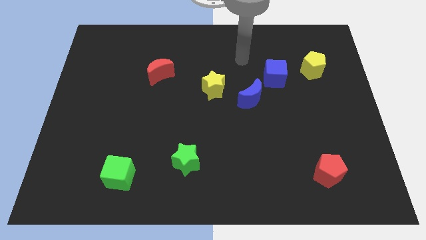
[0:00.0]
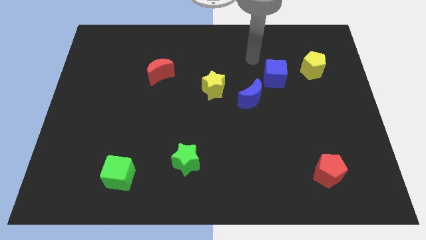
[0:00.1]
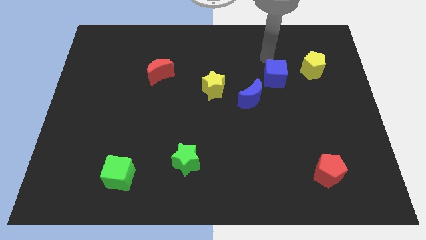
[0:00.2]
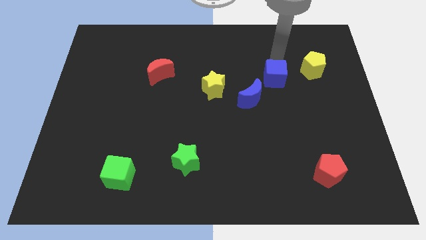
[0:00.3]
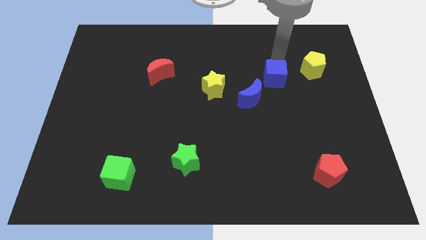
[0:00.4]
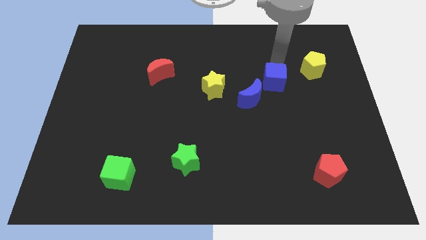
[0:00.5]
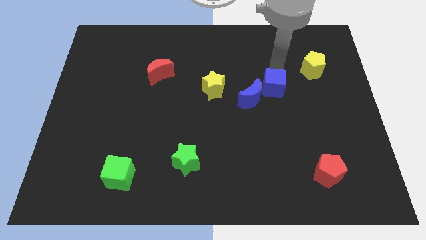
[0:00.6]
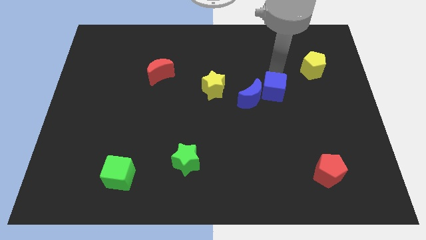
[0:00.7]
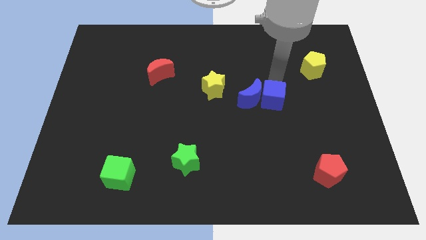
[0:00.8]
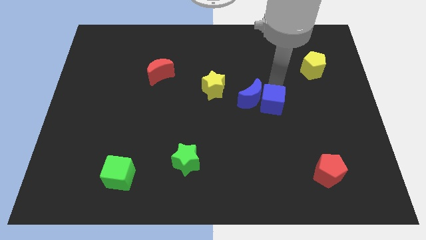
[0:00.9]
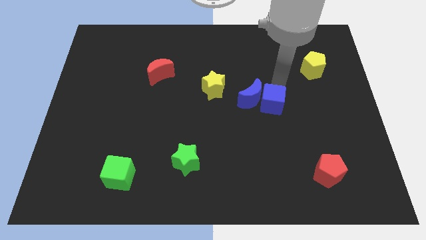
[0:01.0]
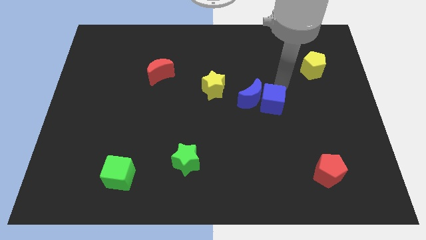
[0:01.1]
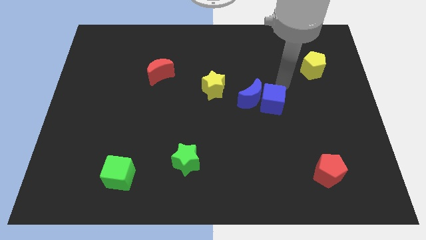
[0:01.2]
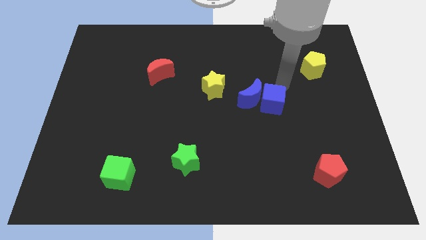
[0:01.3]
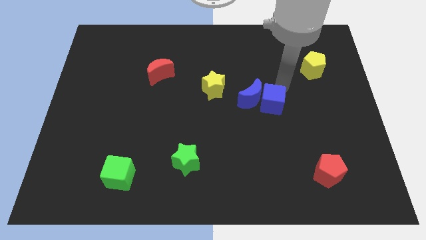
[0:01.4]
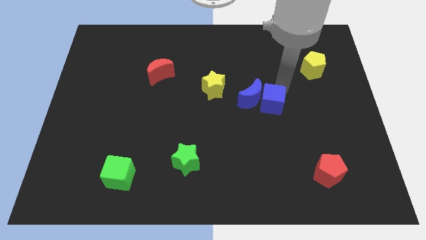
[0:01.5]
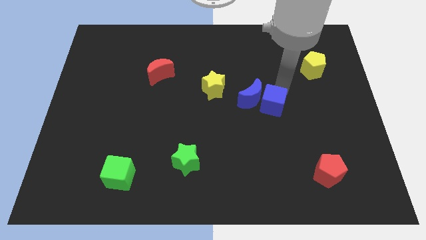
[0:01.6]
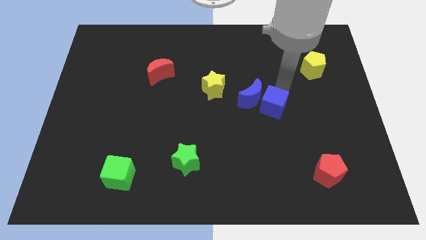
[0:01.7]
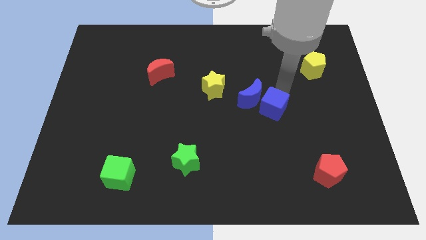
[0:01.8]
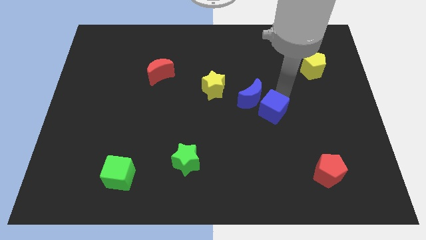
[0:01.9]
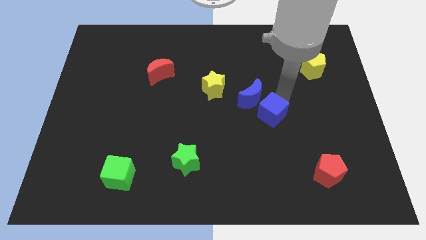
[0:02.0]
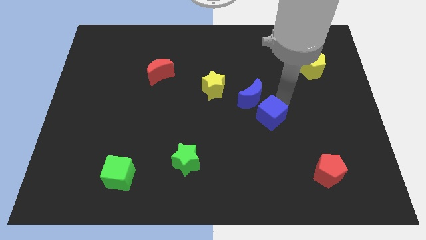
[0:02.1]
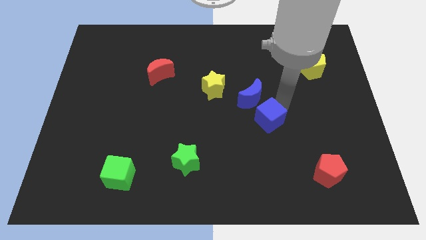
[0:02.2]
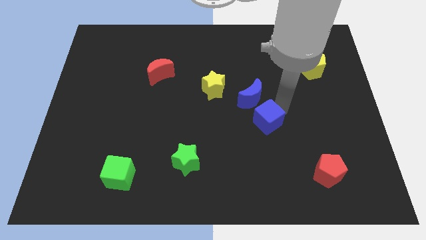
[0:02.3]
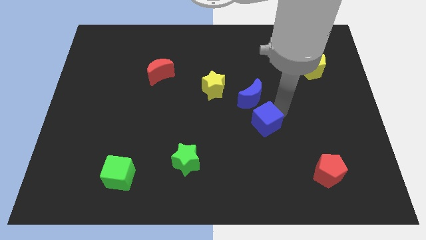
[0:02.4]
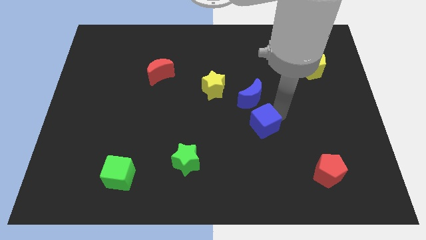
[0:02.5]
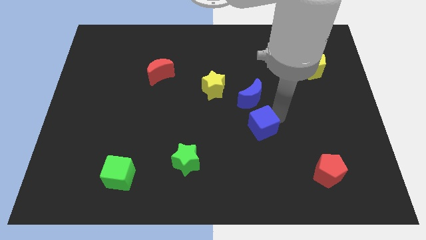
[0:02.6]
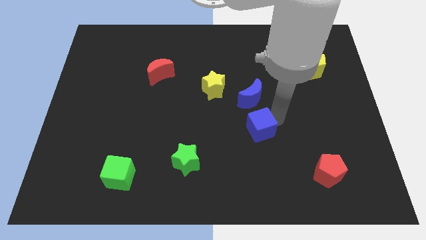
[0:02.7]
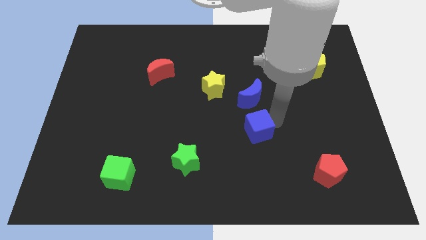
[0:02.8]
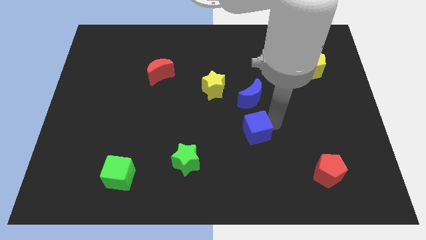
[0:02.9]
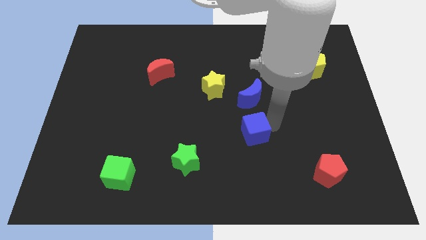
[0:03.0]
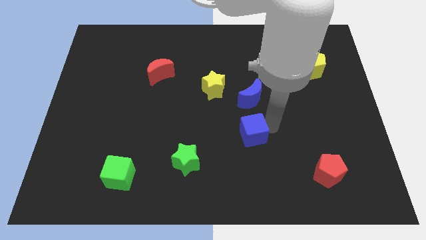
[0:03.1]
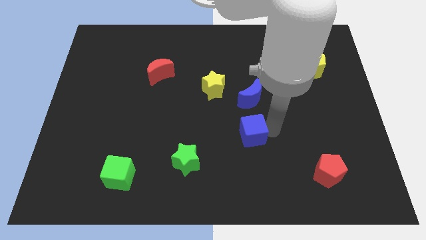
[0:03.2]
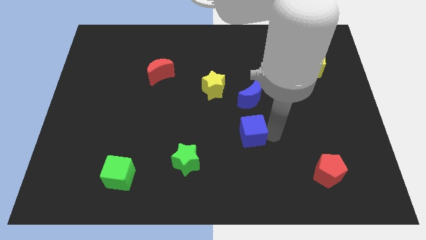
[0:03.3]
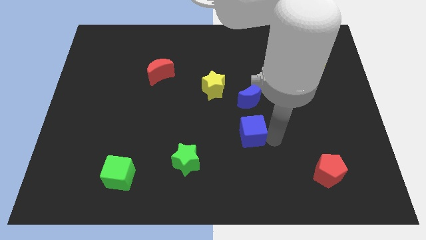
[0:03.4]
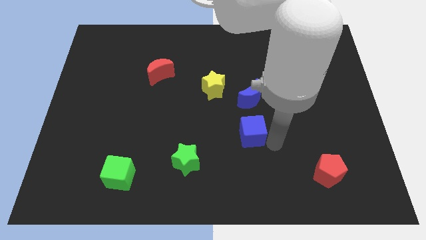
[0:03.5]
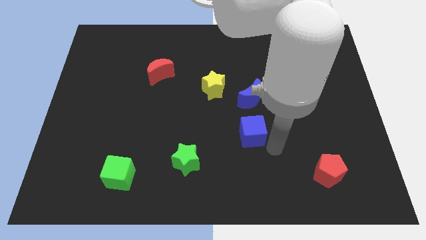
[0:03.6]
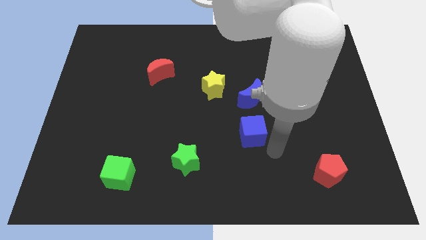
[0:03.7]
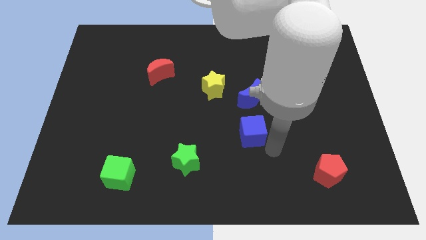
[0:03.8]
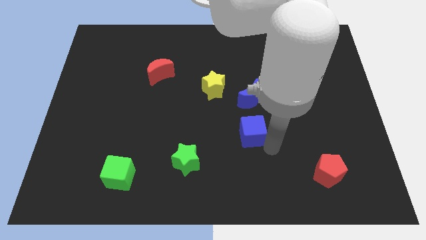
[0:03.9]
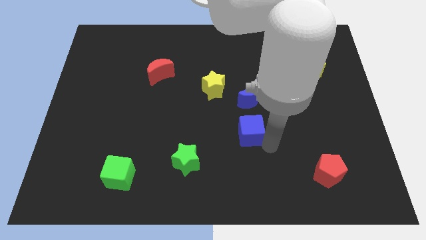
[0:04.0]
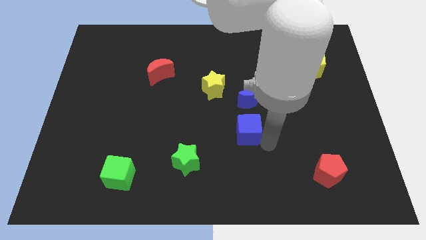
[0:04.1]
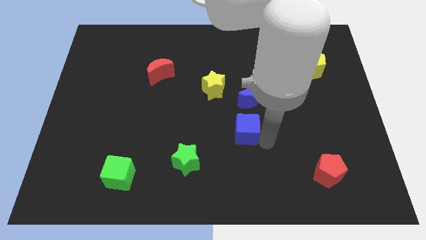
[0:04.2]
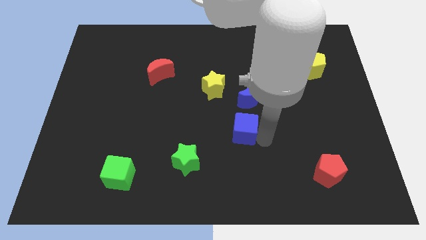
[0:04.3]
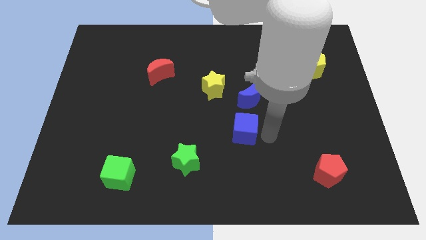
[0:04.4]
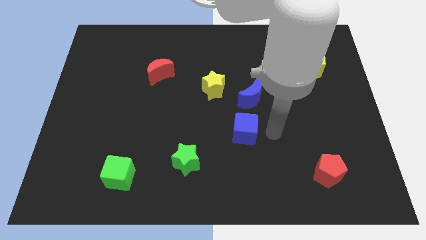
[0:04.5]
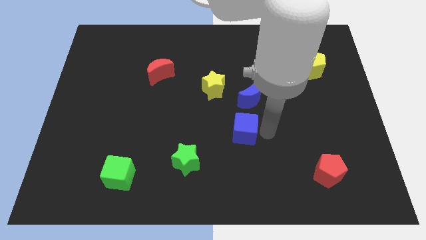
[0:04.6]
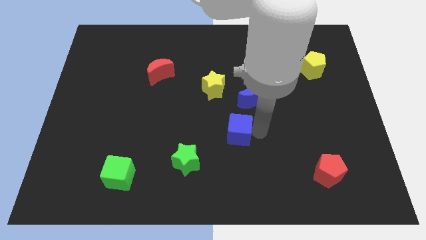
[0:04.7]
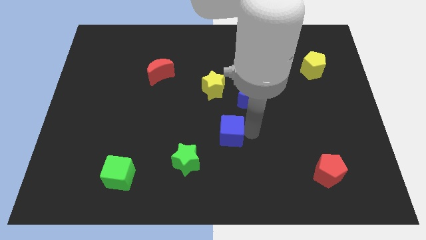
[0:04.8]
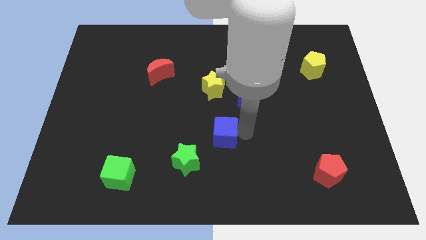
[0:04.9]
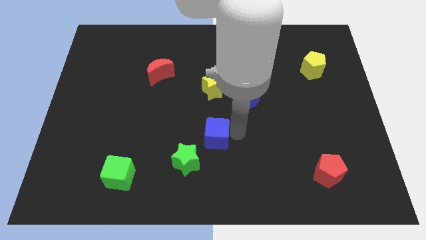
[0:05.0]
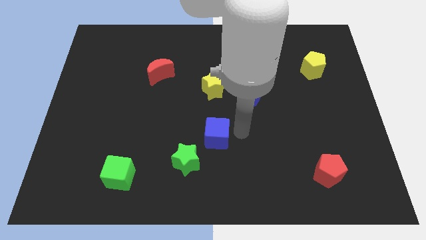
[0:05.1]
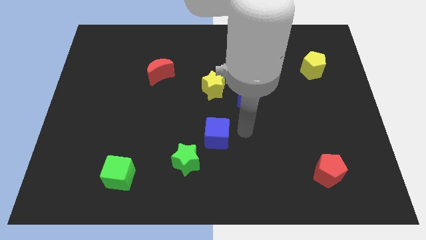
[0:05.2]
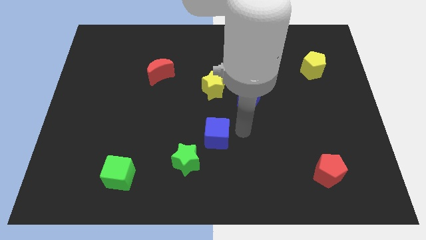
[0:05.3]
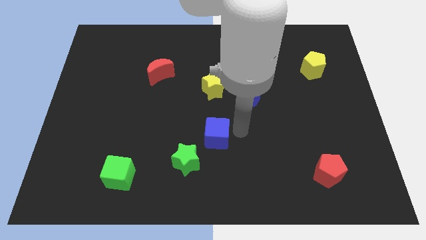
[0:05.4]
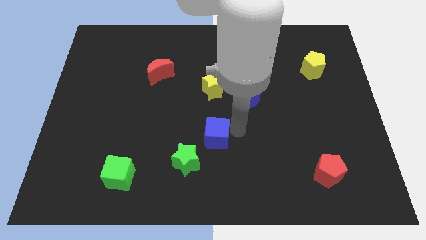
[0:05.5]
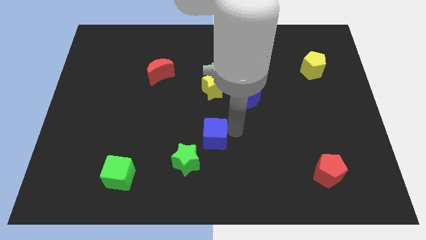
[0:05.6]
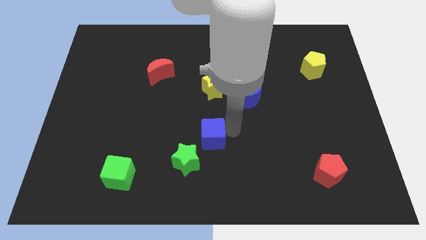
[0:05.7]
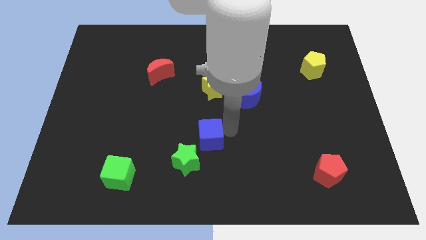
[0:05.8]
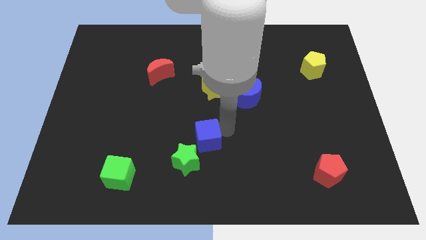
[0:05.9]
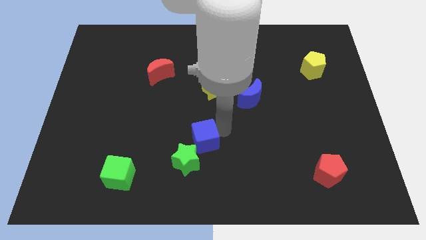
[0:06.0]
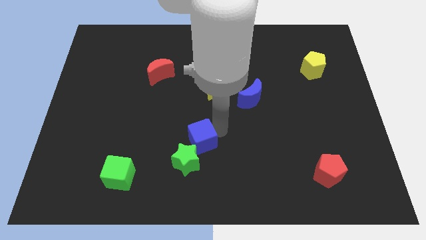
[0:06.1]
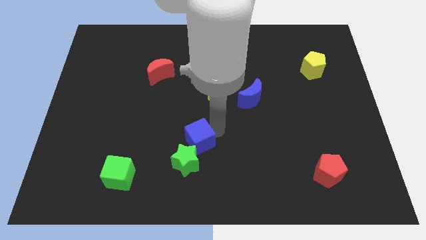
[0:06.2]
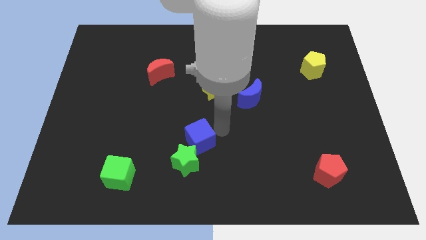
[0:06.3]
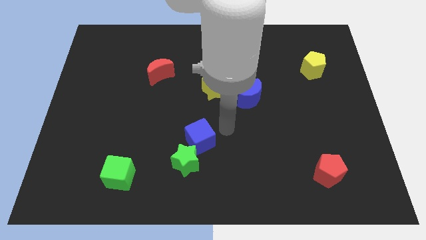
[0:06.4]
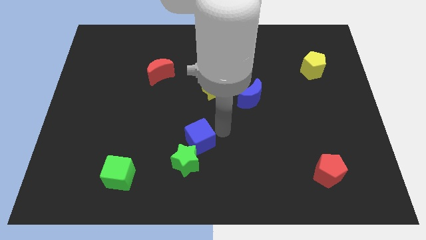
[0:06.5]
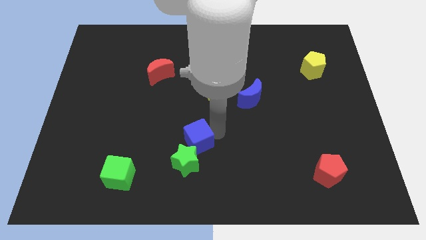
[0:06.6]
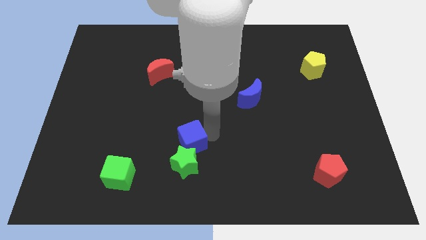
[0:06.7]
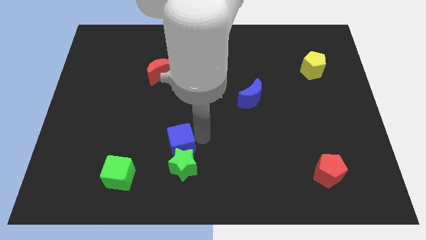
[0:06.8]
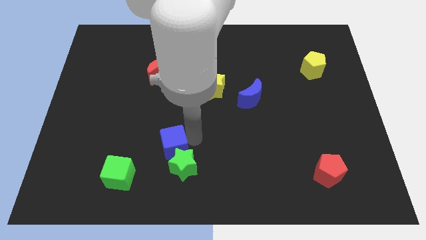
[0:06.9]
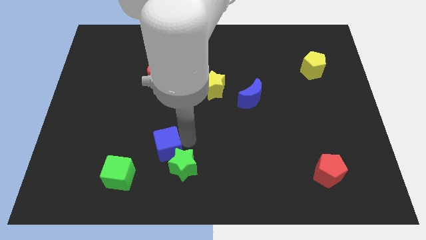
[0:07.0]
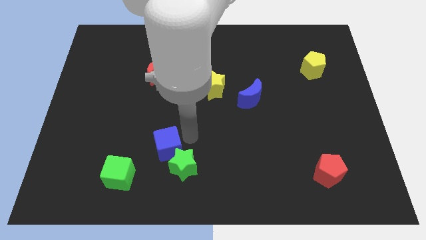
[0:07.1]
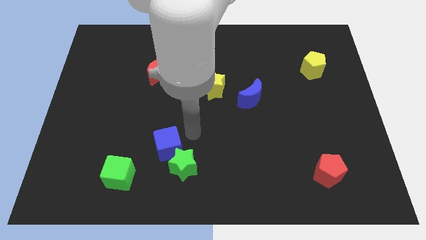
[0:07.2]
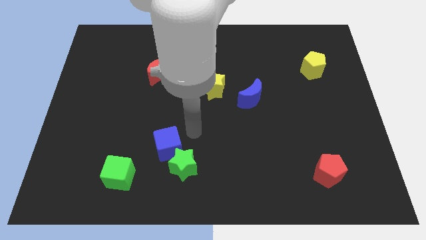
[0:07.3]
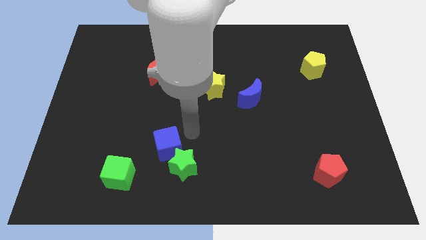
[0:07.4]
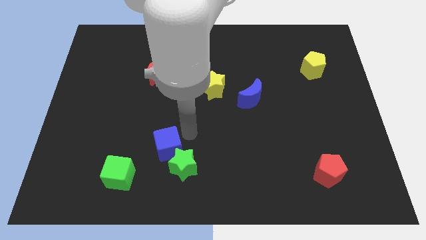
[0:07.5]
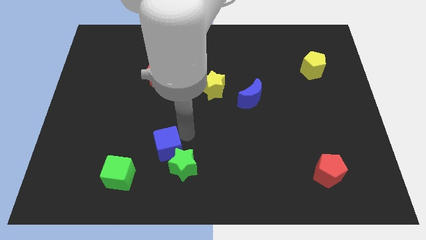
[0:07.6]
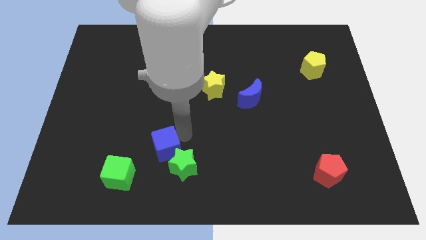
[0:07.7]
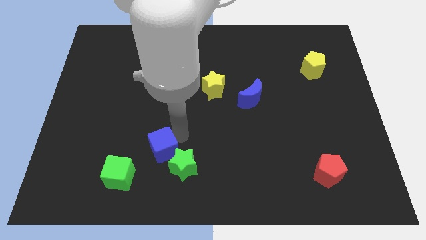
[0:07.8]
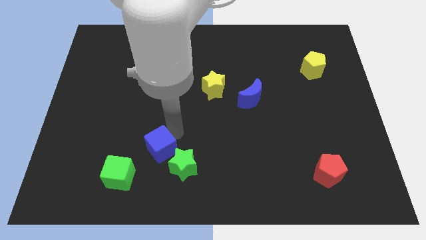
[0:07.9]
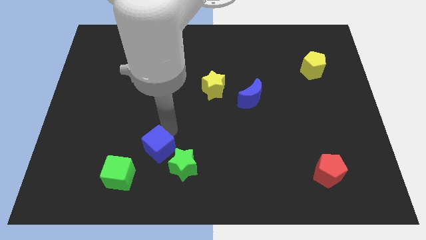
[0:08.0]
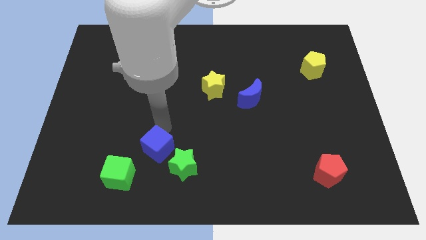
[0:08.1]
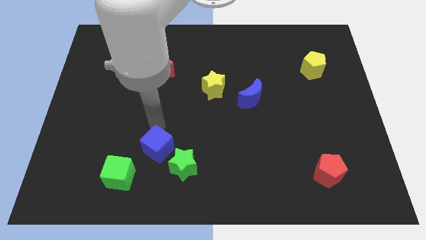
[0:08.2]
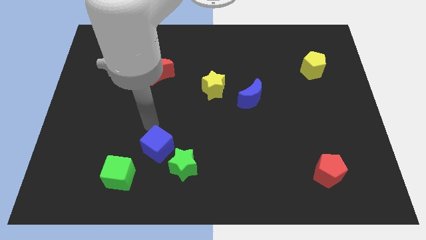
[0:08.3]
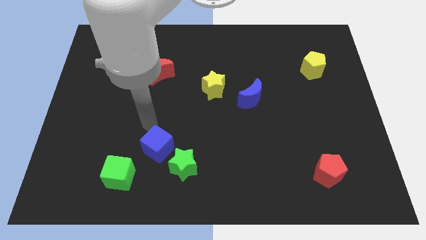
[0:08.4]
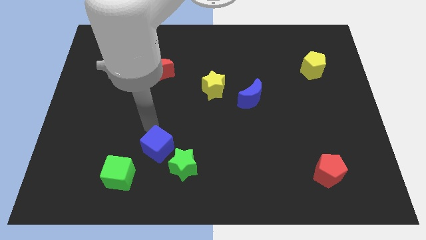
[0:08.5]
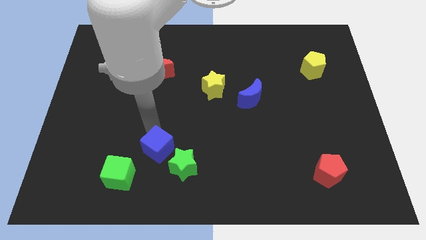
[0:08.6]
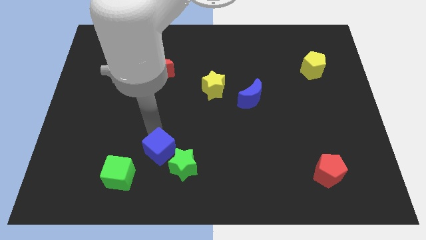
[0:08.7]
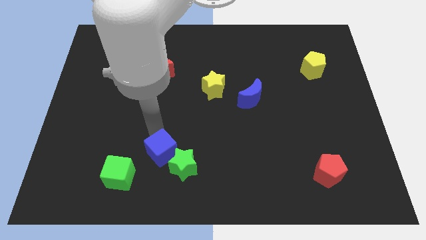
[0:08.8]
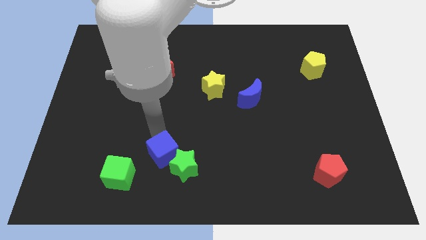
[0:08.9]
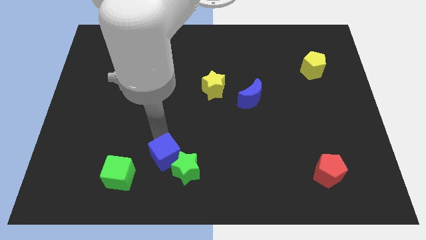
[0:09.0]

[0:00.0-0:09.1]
push the blue cube to the right side of the green cube
